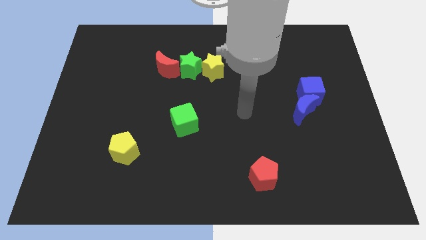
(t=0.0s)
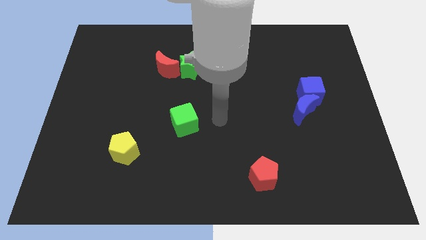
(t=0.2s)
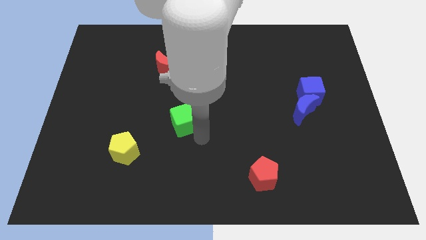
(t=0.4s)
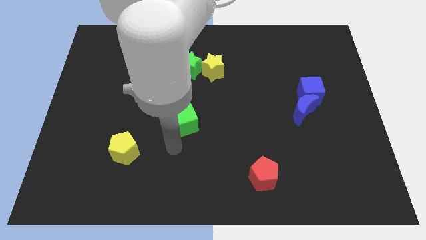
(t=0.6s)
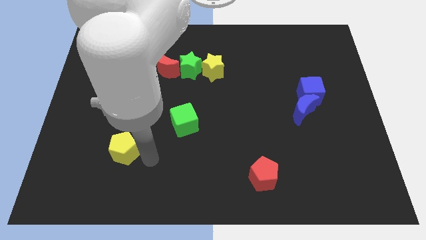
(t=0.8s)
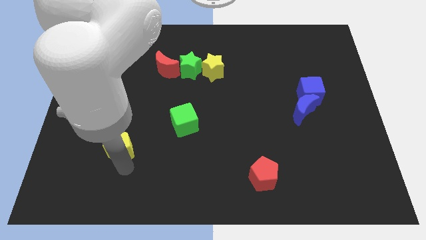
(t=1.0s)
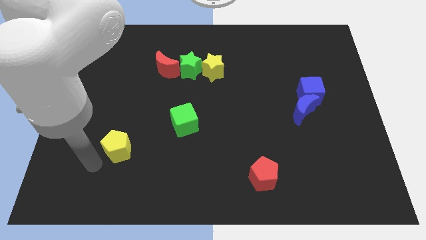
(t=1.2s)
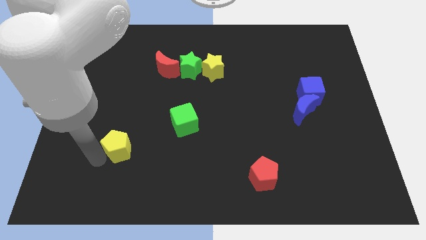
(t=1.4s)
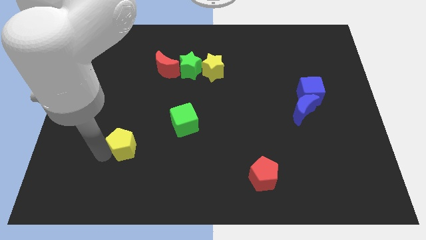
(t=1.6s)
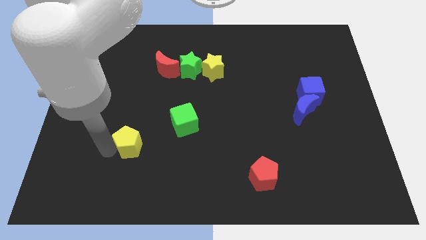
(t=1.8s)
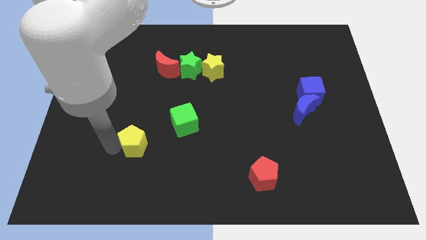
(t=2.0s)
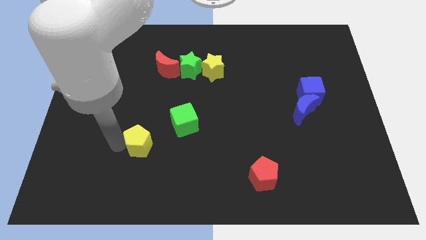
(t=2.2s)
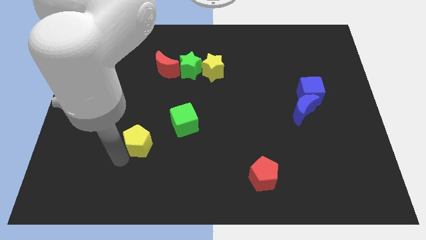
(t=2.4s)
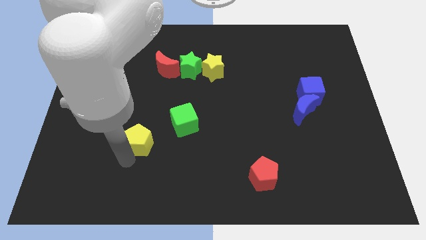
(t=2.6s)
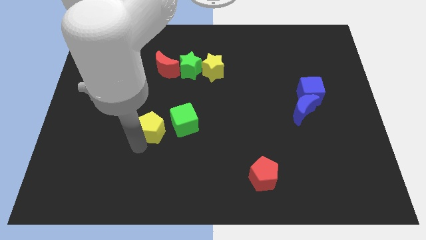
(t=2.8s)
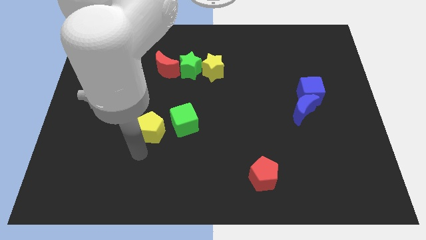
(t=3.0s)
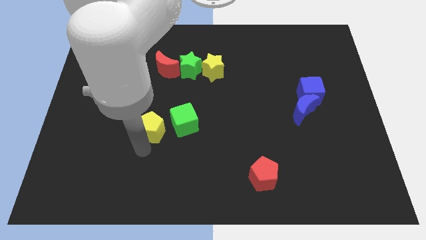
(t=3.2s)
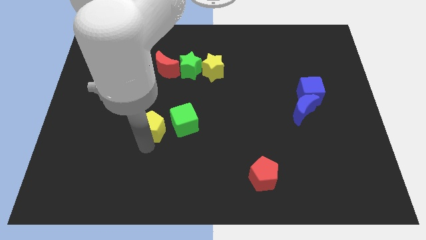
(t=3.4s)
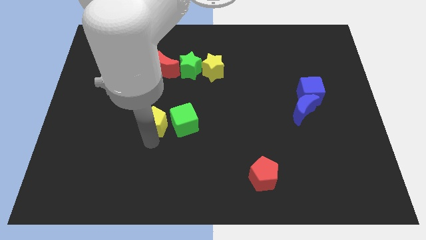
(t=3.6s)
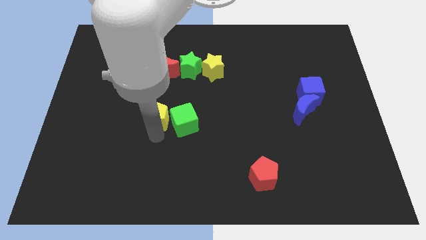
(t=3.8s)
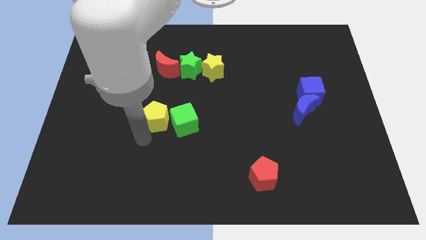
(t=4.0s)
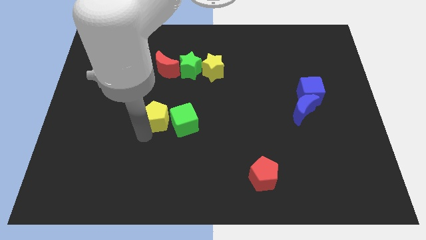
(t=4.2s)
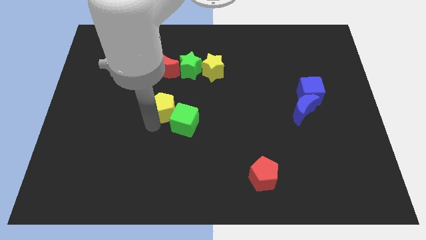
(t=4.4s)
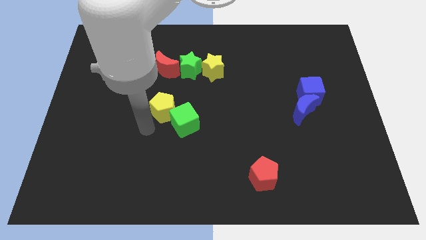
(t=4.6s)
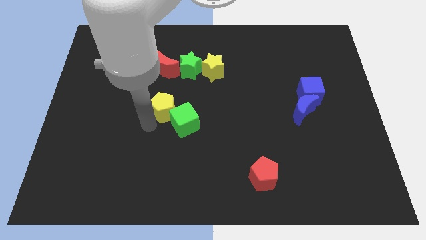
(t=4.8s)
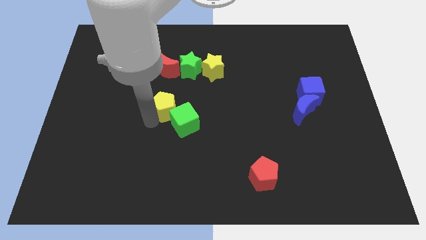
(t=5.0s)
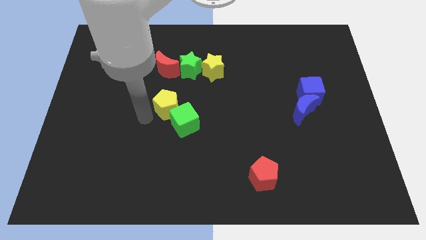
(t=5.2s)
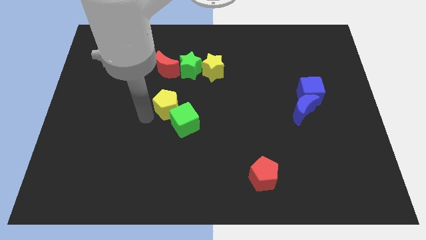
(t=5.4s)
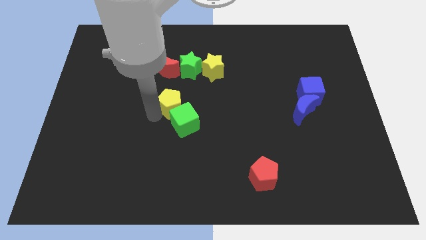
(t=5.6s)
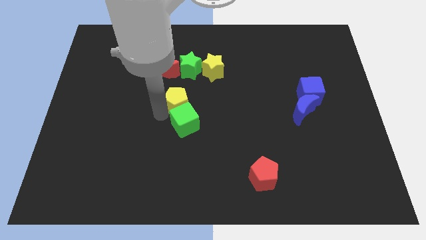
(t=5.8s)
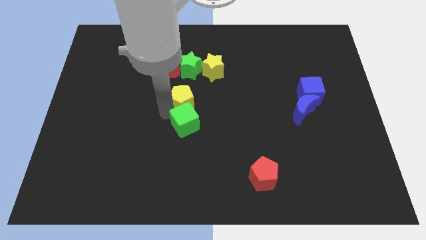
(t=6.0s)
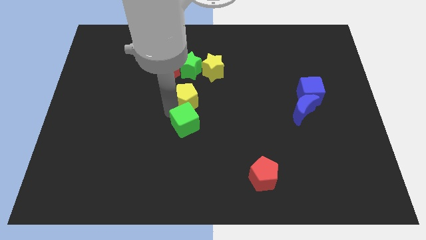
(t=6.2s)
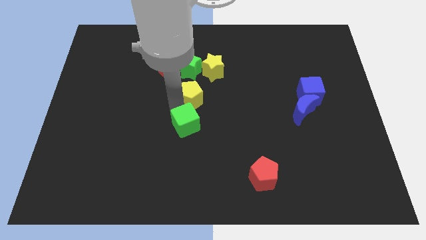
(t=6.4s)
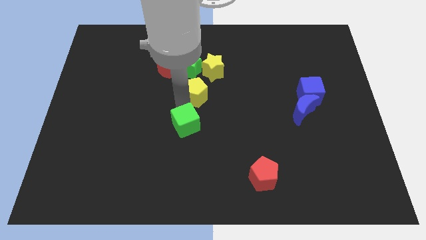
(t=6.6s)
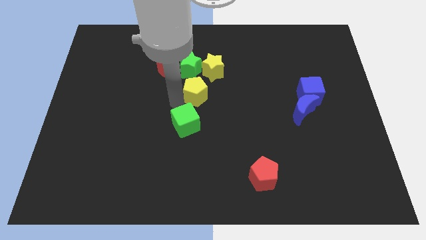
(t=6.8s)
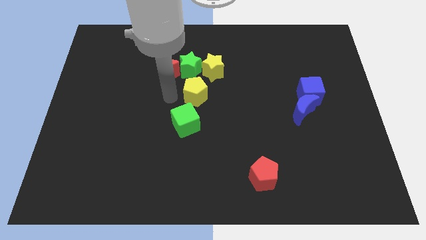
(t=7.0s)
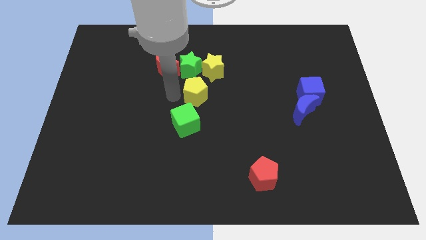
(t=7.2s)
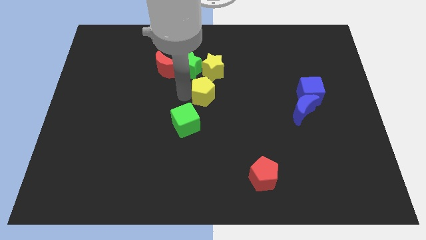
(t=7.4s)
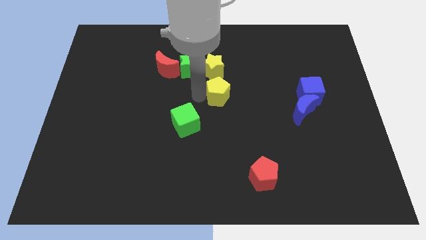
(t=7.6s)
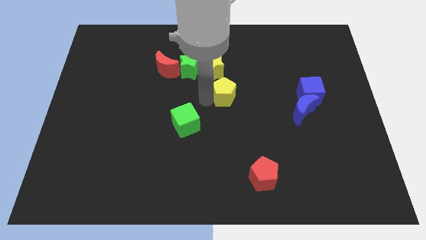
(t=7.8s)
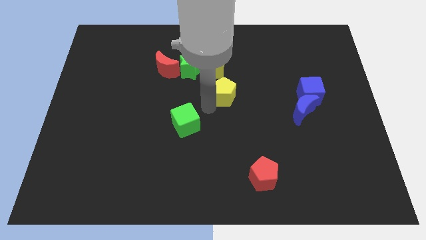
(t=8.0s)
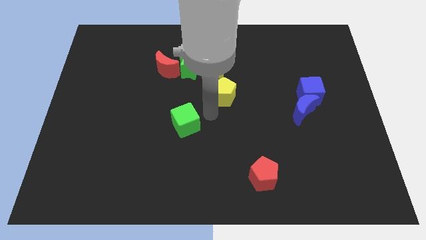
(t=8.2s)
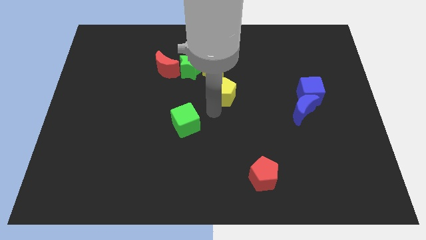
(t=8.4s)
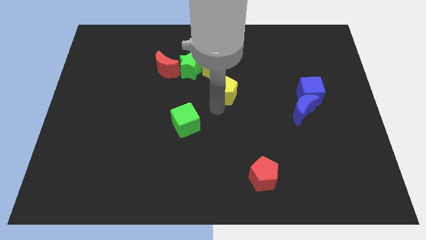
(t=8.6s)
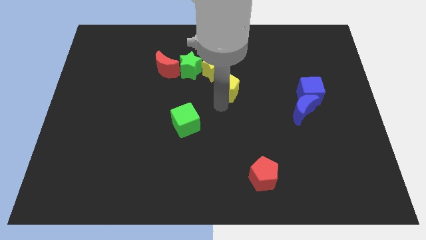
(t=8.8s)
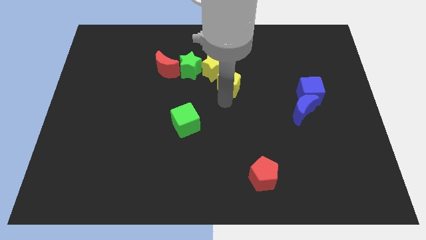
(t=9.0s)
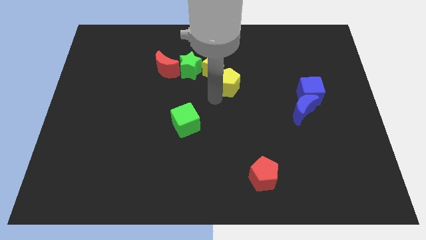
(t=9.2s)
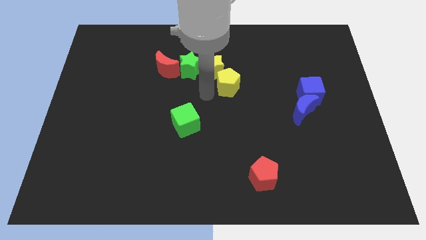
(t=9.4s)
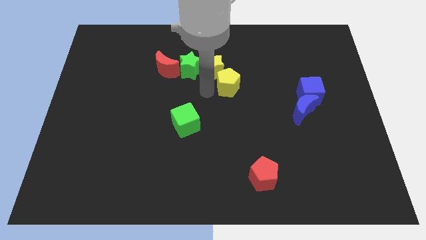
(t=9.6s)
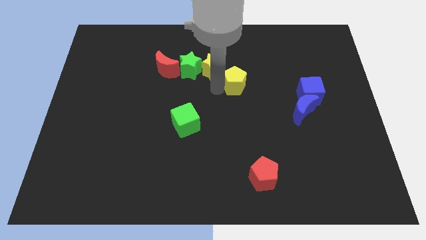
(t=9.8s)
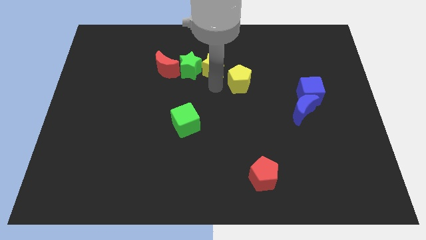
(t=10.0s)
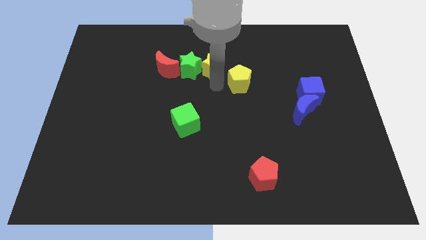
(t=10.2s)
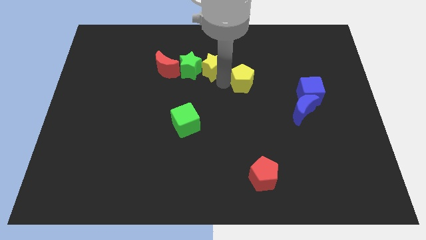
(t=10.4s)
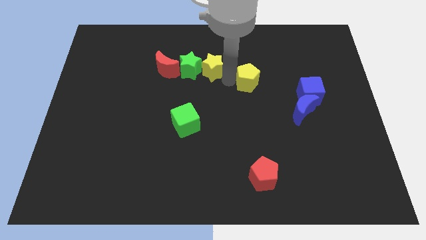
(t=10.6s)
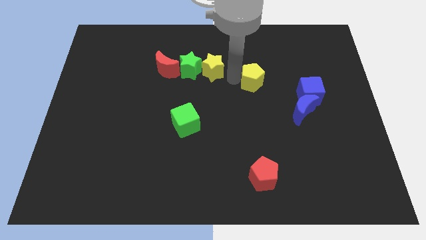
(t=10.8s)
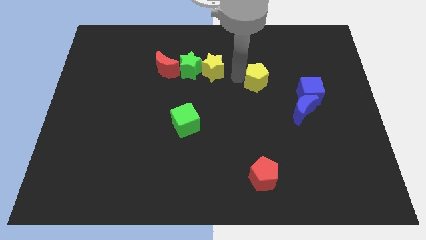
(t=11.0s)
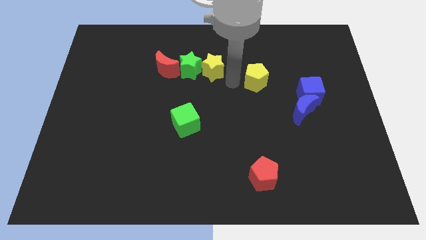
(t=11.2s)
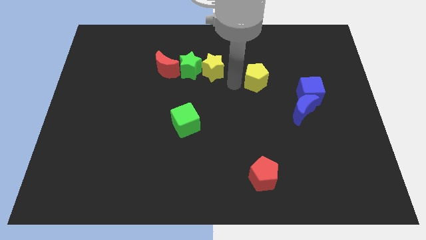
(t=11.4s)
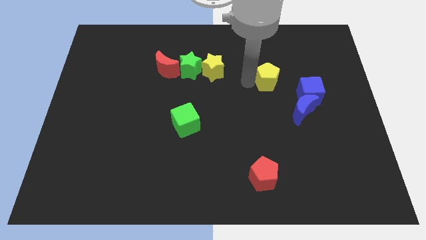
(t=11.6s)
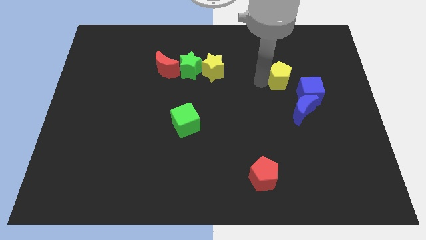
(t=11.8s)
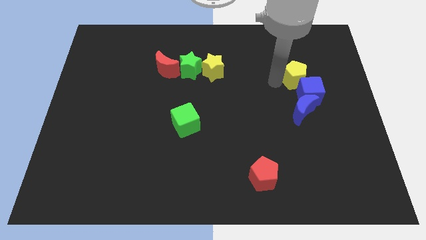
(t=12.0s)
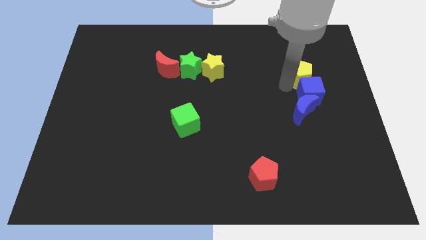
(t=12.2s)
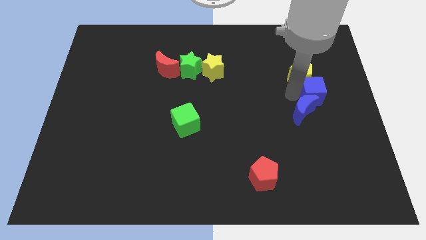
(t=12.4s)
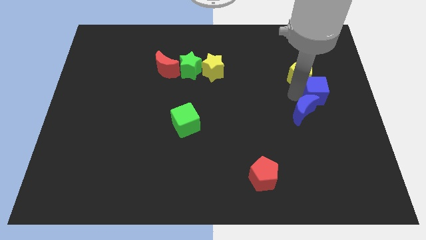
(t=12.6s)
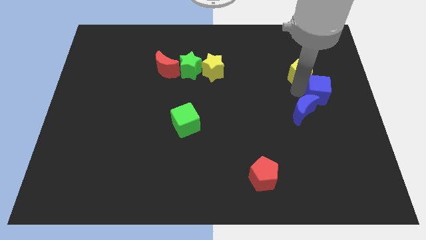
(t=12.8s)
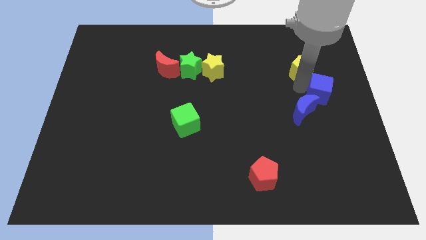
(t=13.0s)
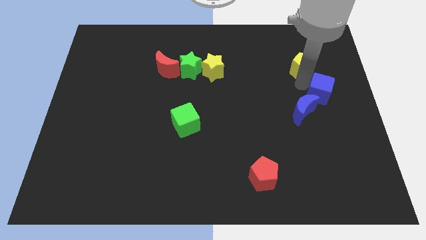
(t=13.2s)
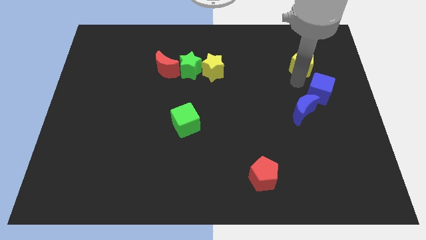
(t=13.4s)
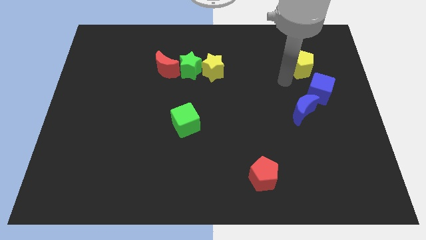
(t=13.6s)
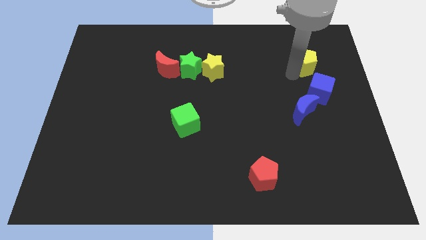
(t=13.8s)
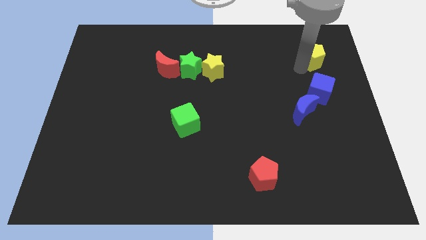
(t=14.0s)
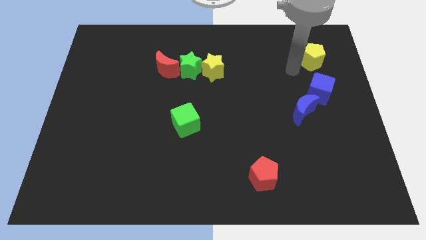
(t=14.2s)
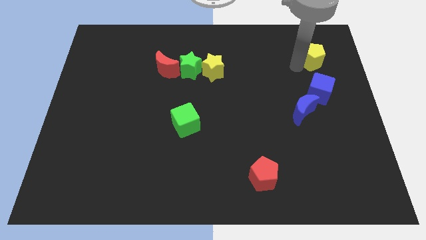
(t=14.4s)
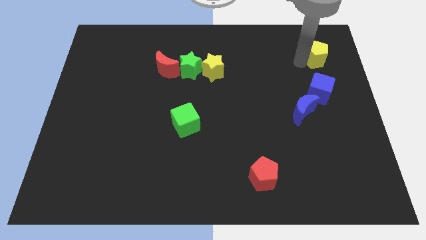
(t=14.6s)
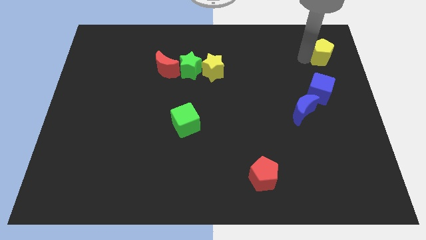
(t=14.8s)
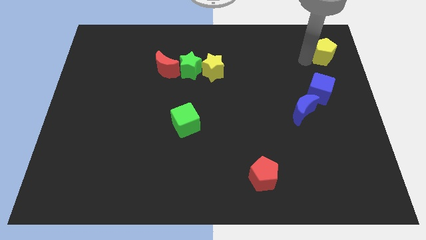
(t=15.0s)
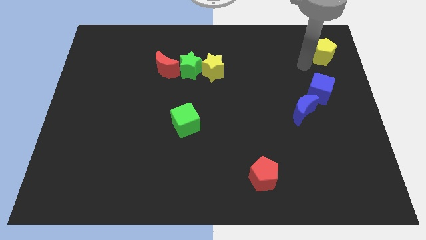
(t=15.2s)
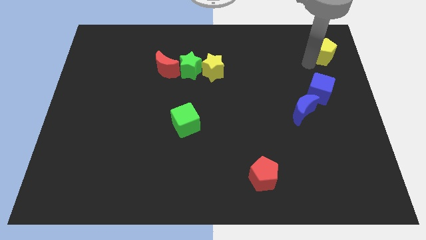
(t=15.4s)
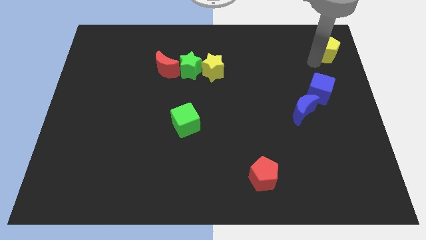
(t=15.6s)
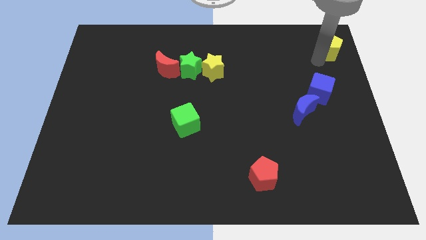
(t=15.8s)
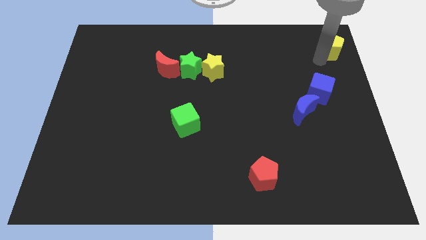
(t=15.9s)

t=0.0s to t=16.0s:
push the yellow pentagon to the top right
